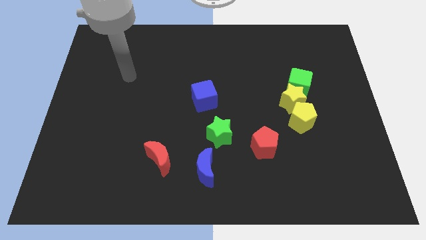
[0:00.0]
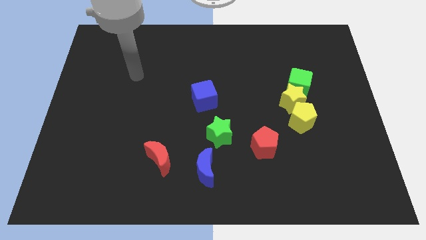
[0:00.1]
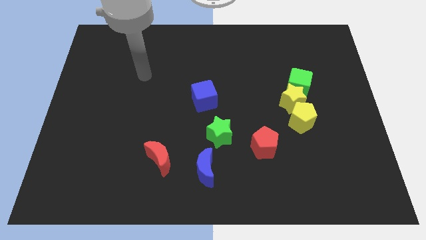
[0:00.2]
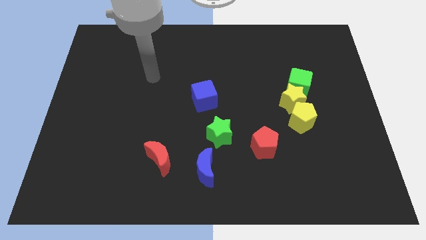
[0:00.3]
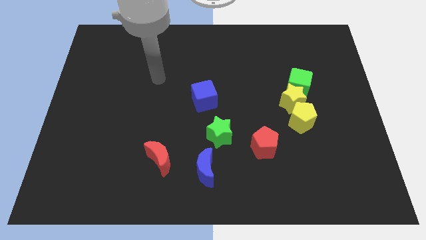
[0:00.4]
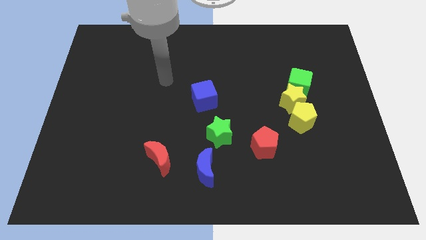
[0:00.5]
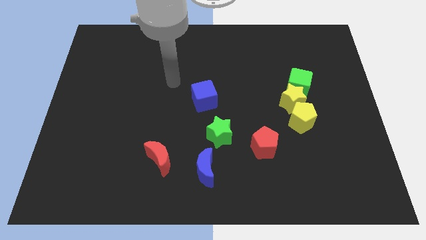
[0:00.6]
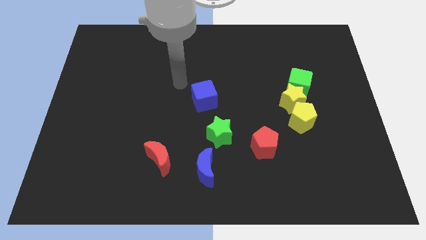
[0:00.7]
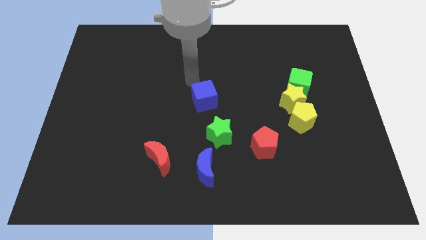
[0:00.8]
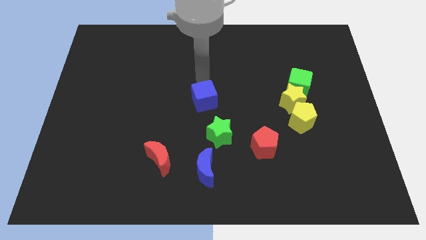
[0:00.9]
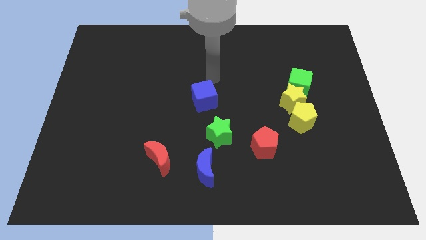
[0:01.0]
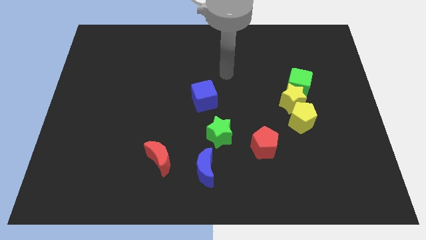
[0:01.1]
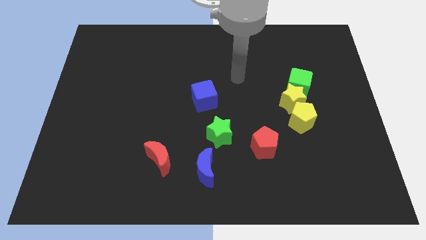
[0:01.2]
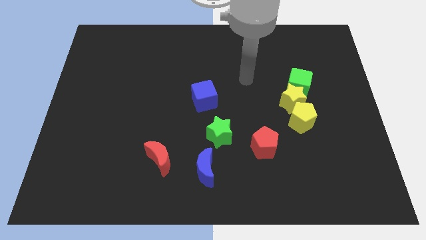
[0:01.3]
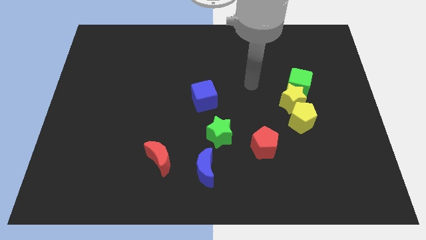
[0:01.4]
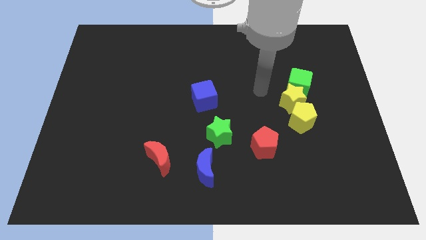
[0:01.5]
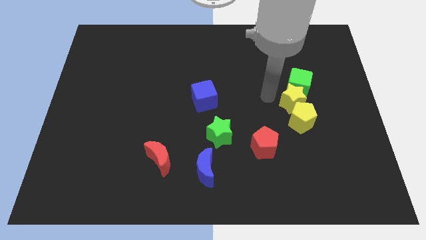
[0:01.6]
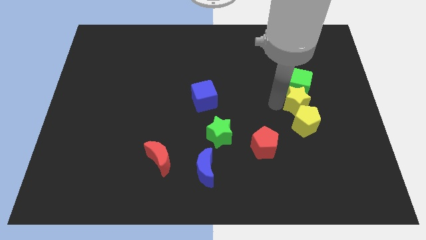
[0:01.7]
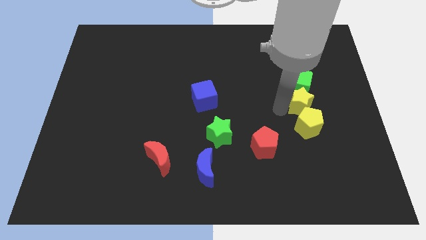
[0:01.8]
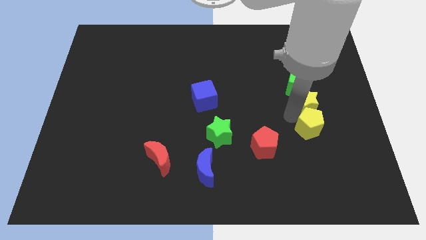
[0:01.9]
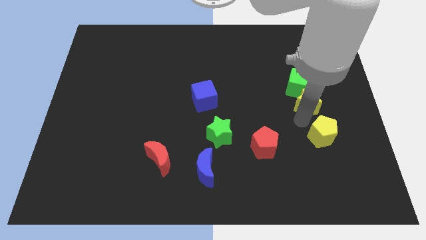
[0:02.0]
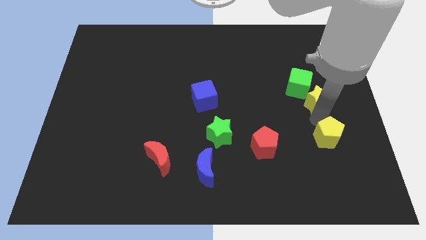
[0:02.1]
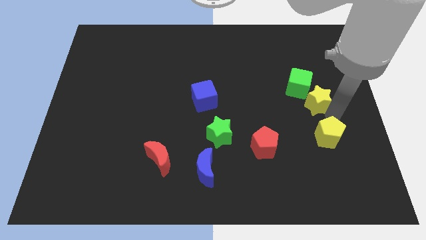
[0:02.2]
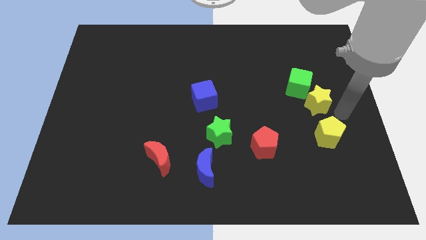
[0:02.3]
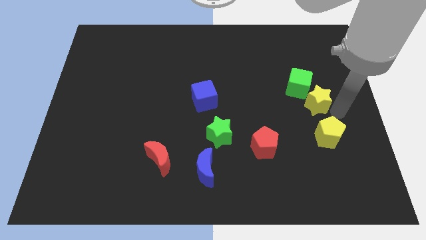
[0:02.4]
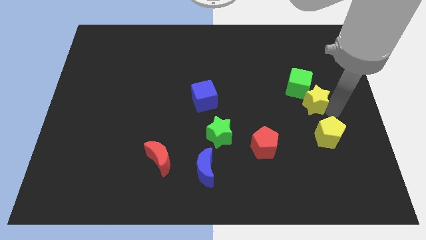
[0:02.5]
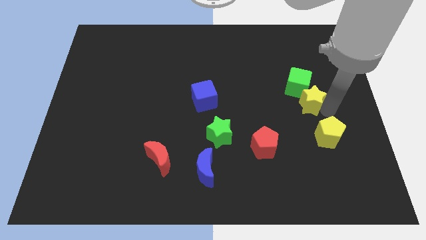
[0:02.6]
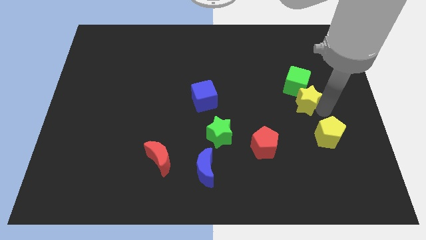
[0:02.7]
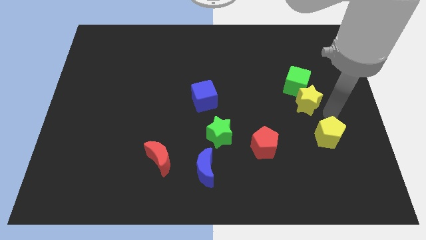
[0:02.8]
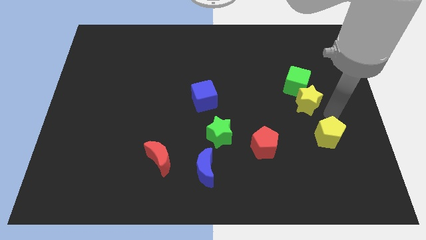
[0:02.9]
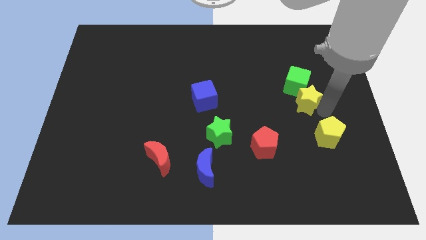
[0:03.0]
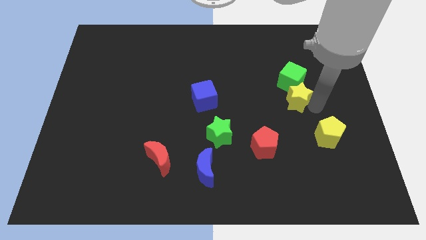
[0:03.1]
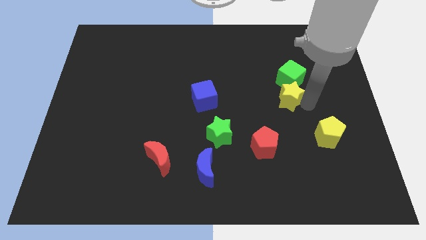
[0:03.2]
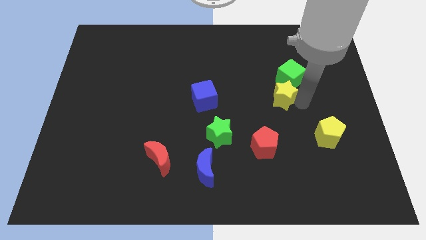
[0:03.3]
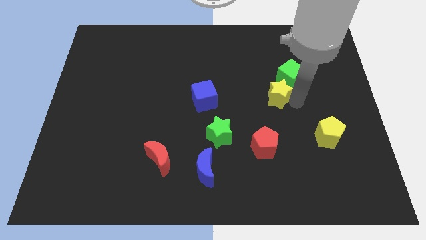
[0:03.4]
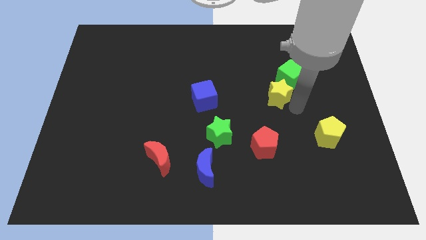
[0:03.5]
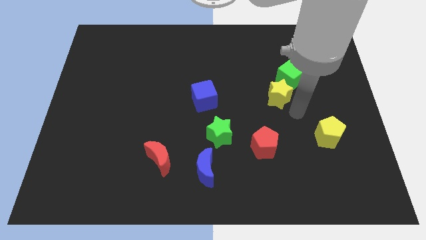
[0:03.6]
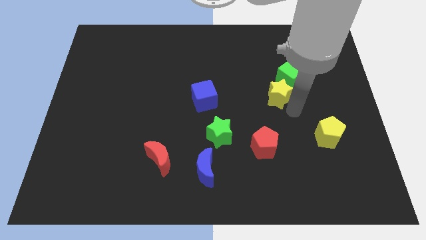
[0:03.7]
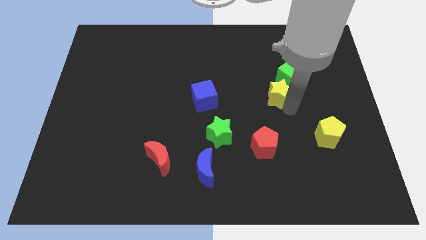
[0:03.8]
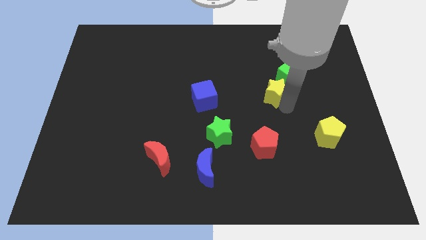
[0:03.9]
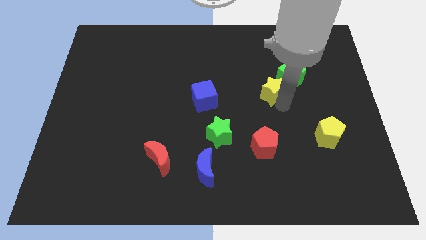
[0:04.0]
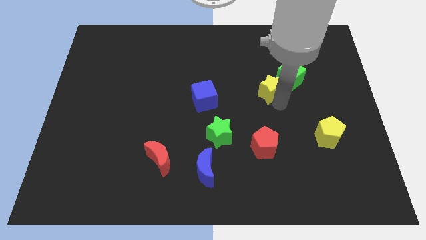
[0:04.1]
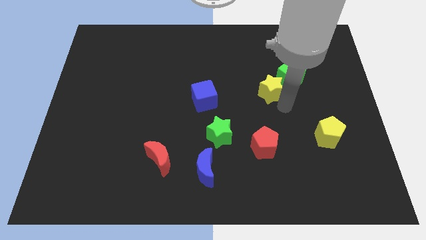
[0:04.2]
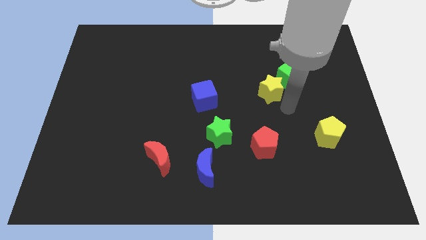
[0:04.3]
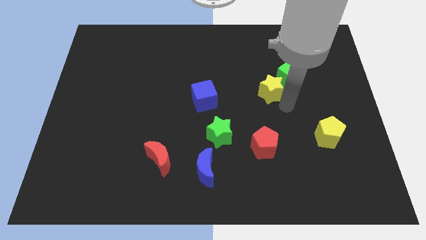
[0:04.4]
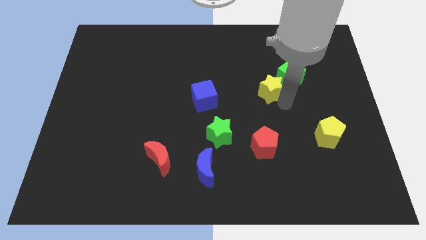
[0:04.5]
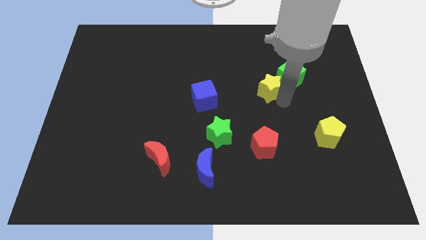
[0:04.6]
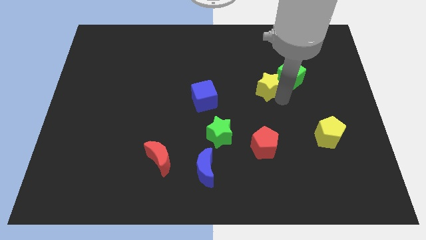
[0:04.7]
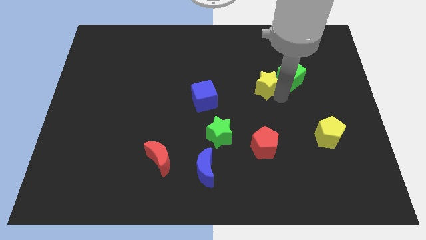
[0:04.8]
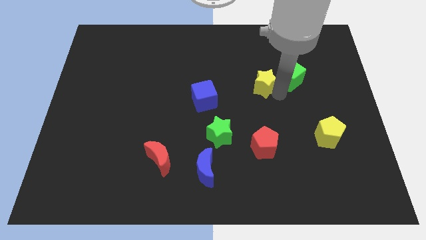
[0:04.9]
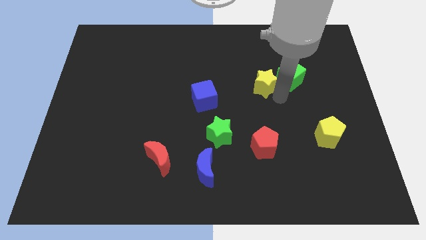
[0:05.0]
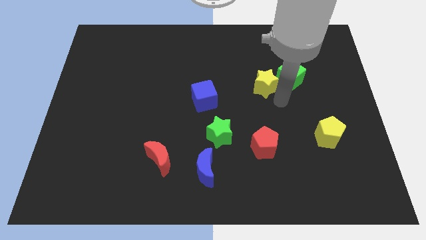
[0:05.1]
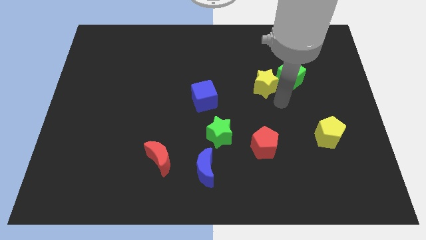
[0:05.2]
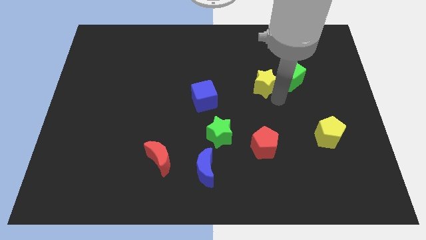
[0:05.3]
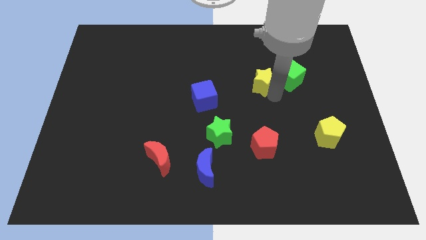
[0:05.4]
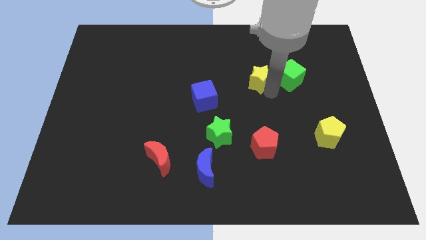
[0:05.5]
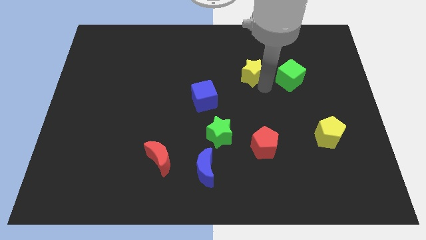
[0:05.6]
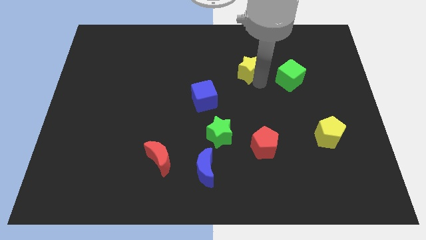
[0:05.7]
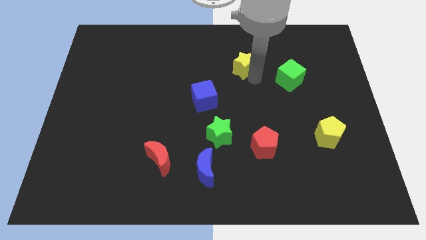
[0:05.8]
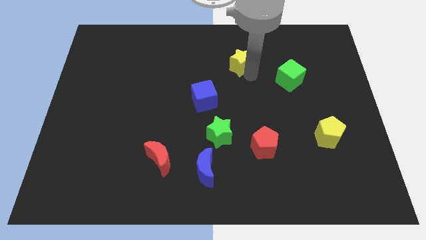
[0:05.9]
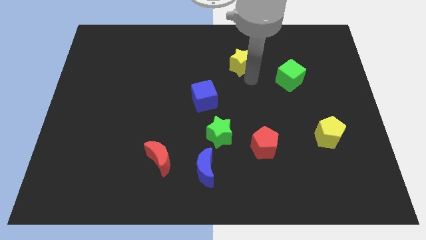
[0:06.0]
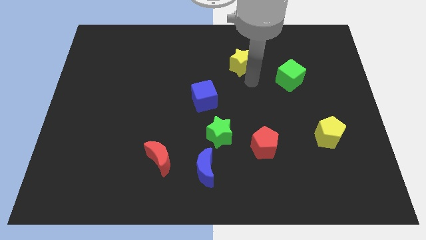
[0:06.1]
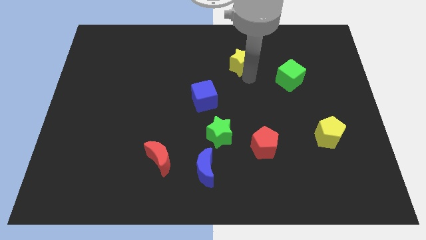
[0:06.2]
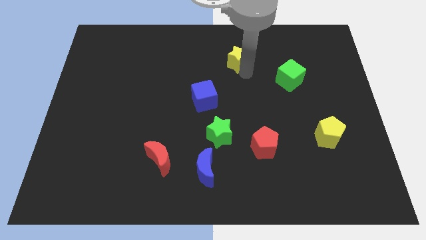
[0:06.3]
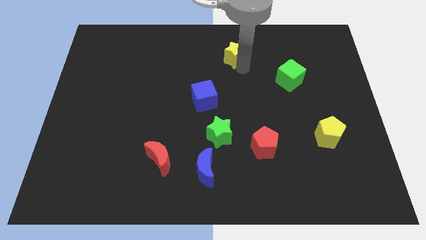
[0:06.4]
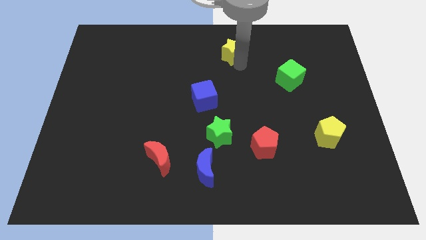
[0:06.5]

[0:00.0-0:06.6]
move the yellow star to the top side
